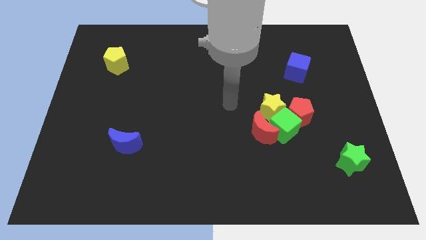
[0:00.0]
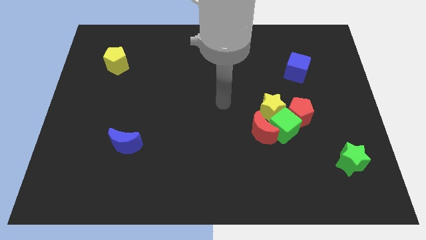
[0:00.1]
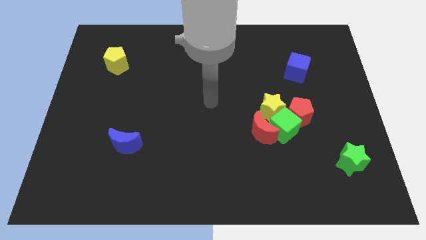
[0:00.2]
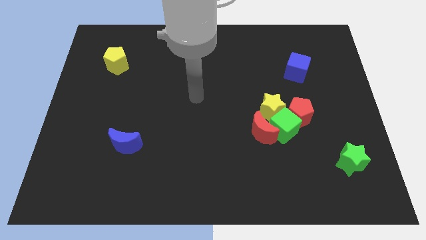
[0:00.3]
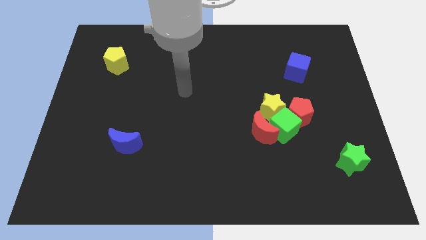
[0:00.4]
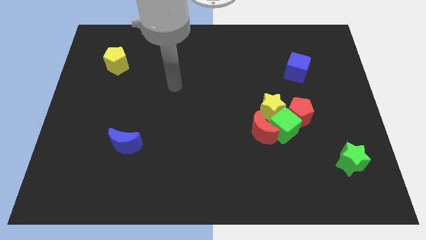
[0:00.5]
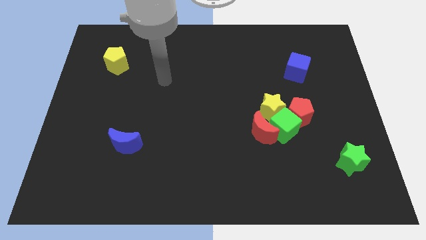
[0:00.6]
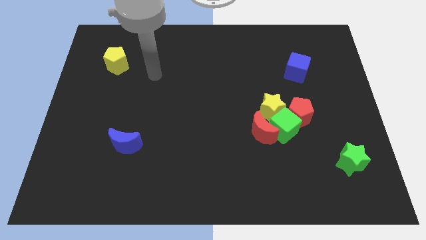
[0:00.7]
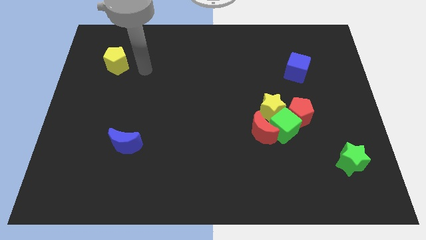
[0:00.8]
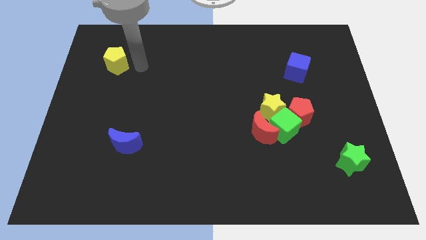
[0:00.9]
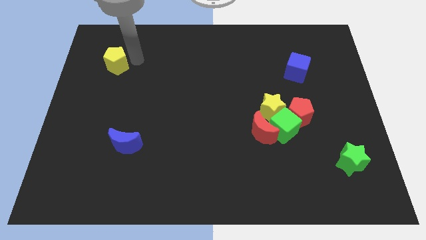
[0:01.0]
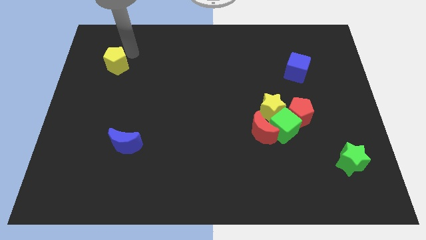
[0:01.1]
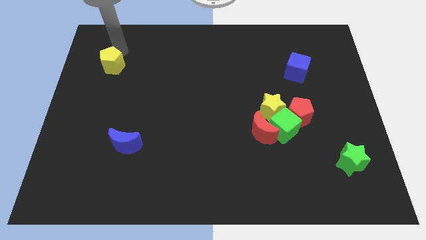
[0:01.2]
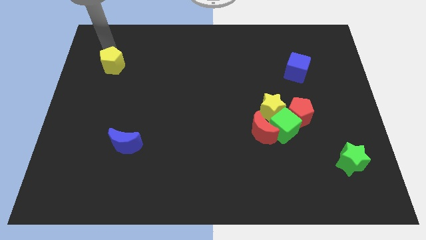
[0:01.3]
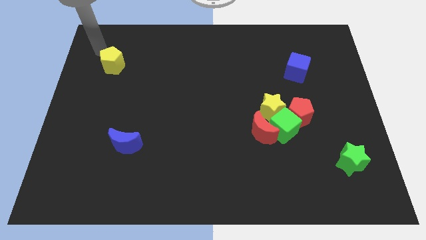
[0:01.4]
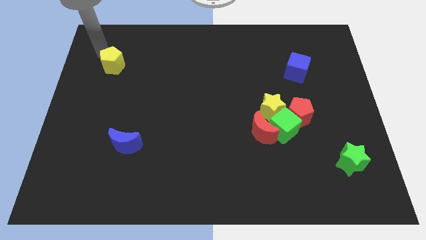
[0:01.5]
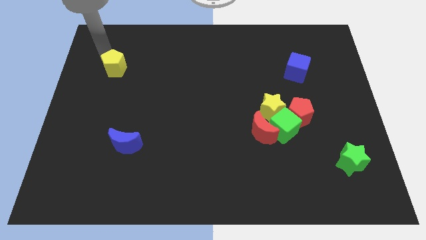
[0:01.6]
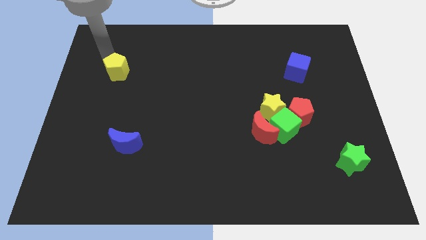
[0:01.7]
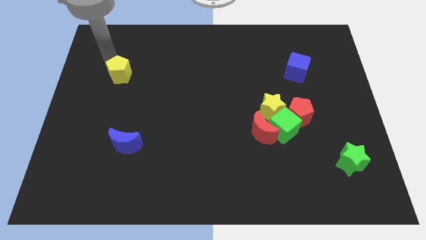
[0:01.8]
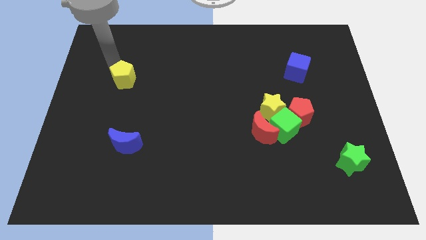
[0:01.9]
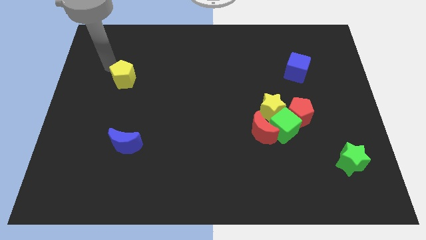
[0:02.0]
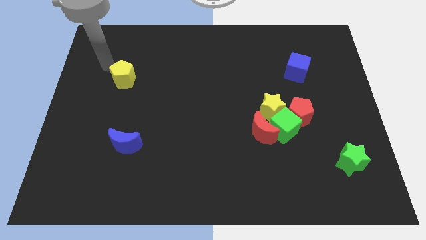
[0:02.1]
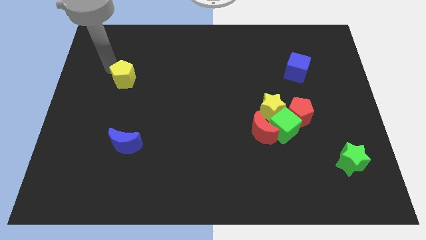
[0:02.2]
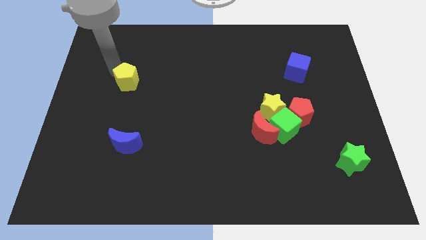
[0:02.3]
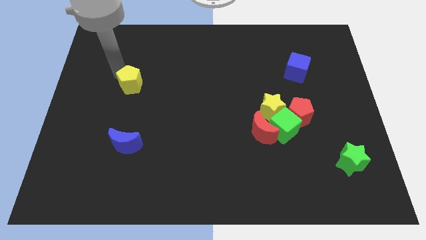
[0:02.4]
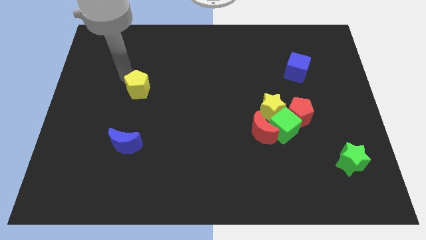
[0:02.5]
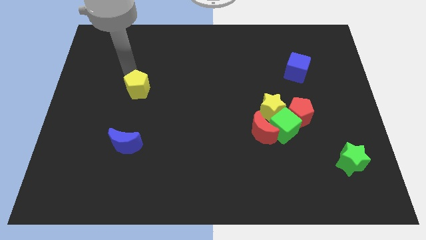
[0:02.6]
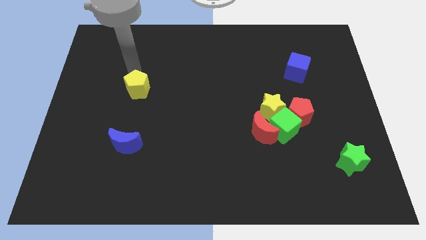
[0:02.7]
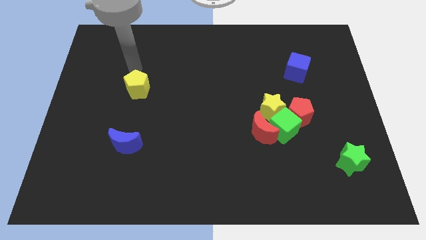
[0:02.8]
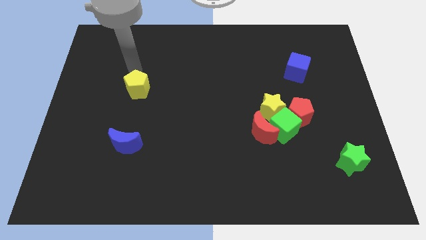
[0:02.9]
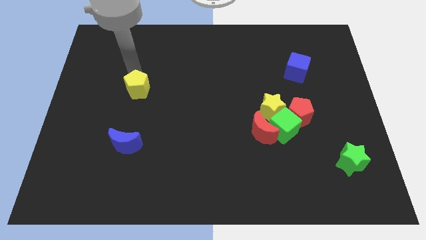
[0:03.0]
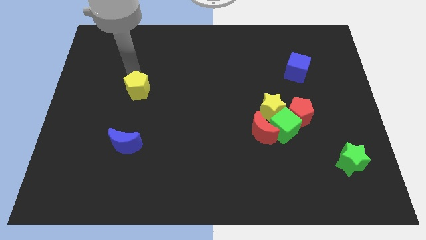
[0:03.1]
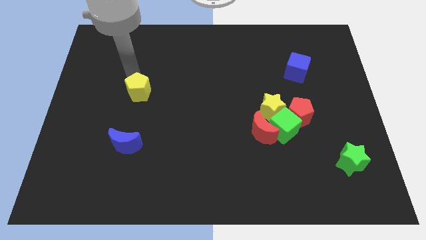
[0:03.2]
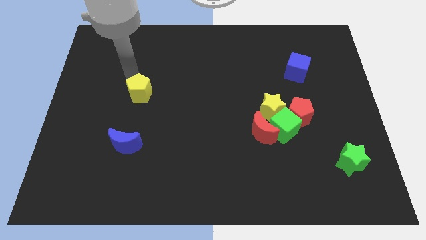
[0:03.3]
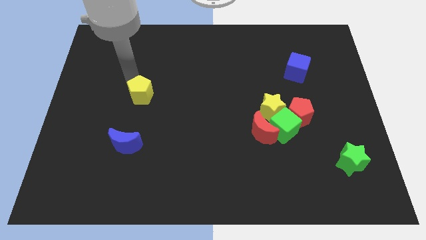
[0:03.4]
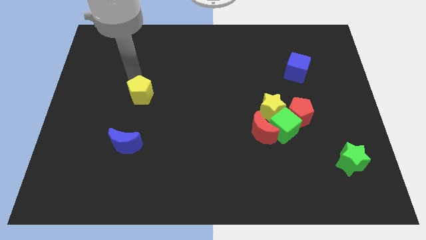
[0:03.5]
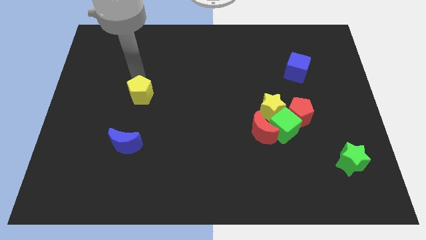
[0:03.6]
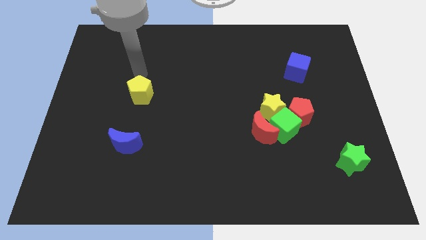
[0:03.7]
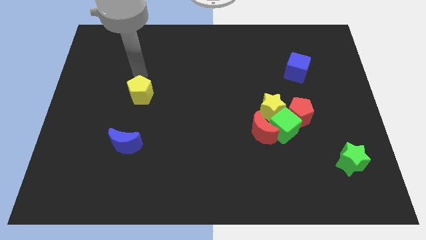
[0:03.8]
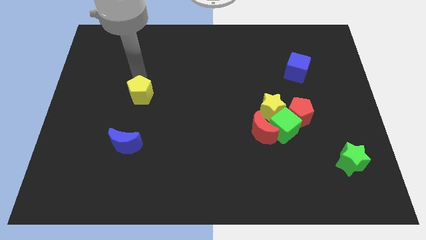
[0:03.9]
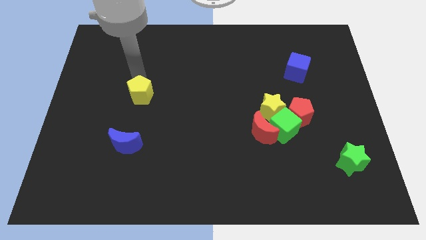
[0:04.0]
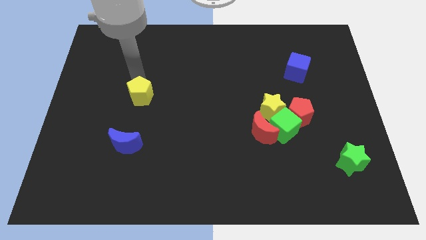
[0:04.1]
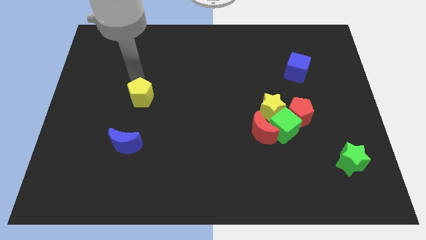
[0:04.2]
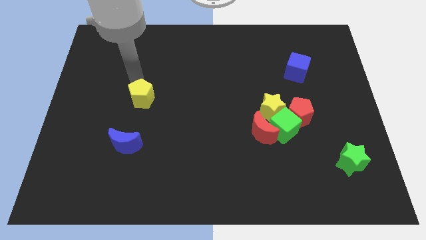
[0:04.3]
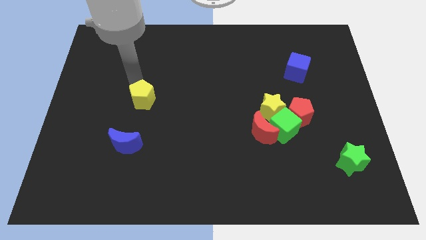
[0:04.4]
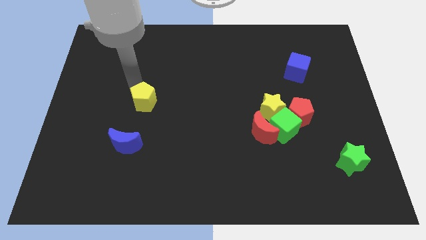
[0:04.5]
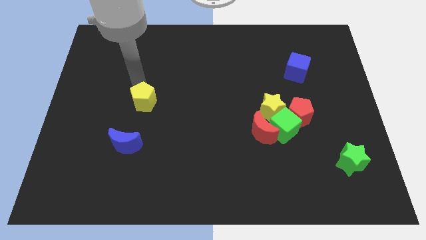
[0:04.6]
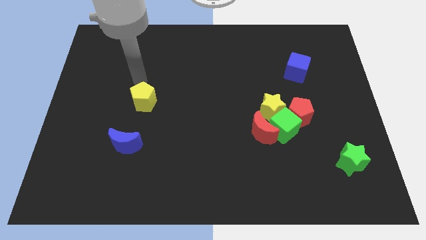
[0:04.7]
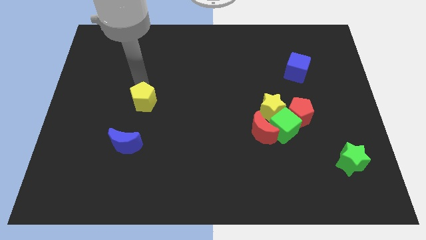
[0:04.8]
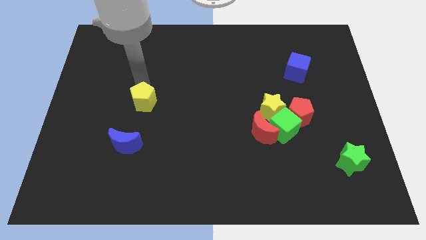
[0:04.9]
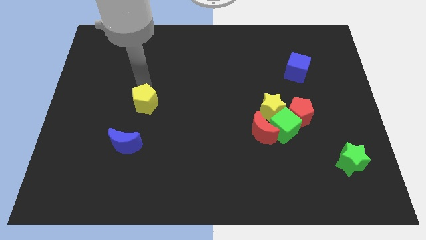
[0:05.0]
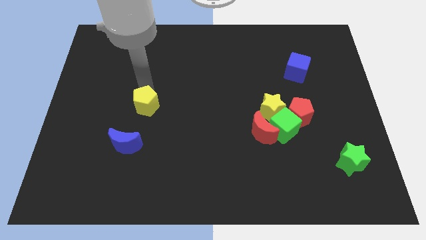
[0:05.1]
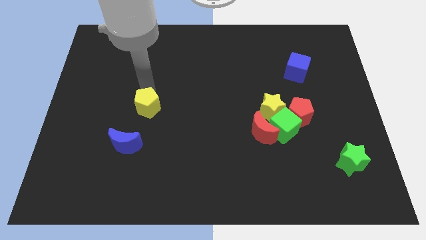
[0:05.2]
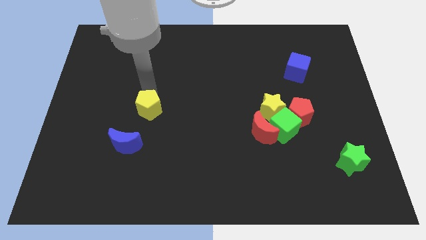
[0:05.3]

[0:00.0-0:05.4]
move the yellow pentagon diagonally up and to the right of the blue moon

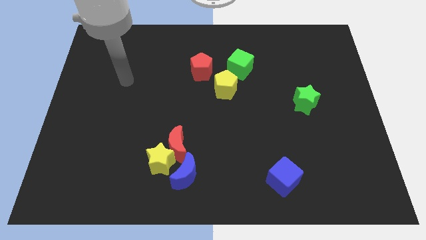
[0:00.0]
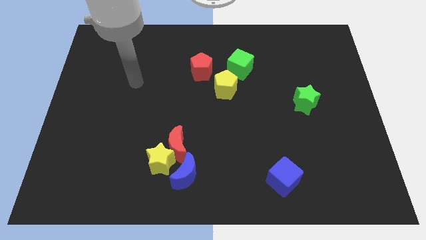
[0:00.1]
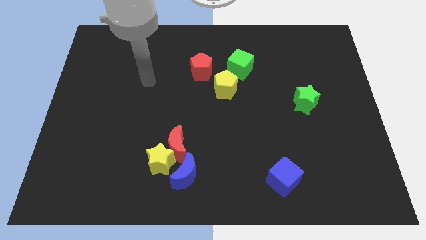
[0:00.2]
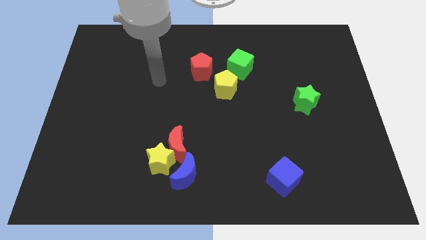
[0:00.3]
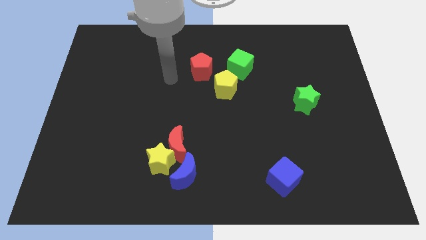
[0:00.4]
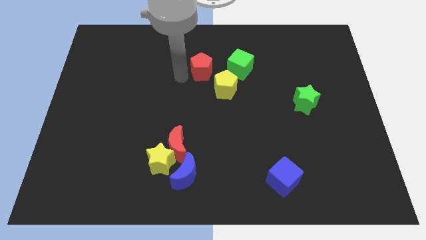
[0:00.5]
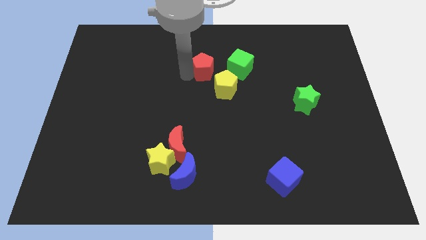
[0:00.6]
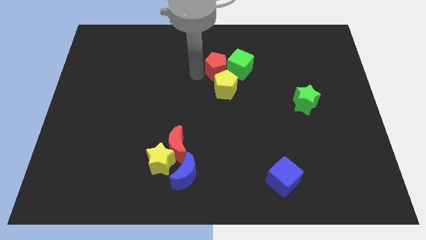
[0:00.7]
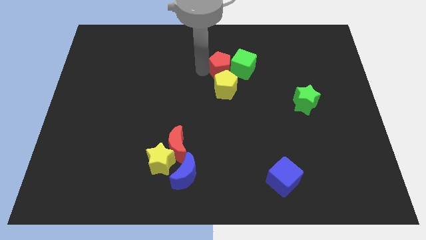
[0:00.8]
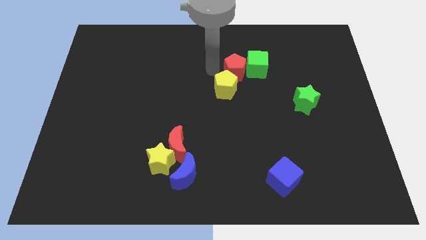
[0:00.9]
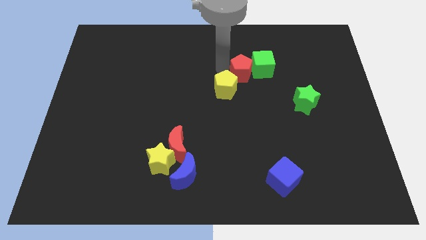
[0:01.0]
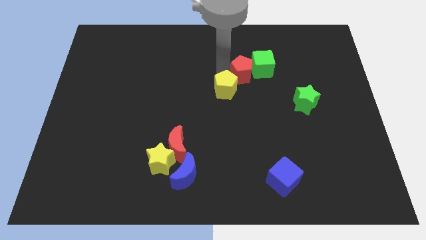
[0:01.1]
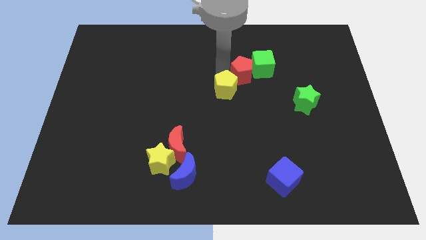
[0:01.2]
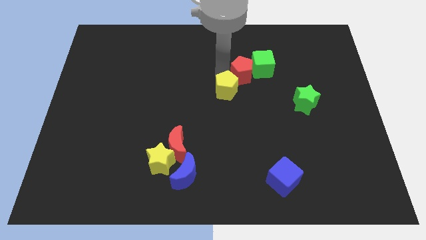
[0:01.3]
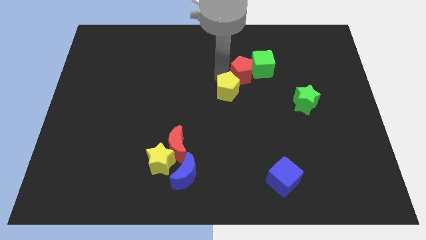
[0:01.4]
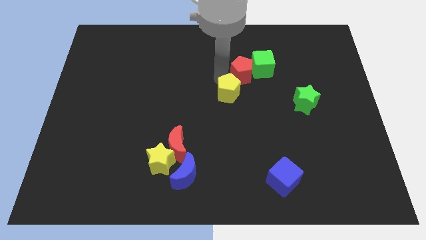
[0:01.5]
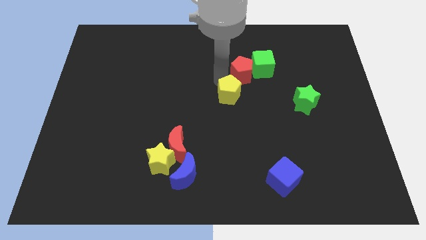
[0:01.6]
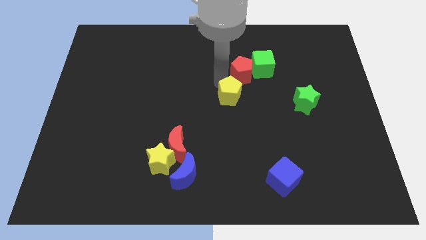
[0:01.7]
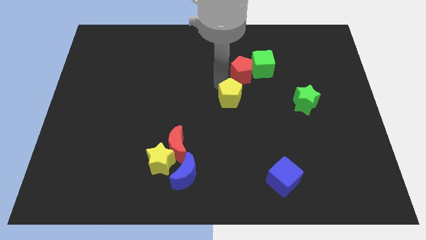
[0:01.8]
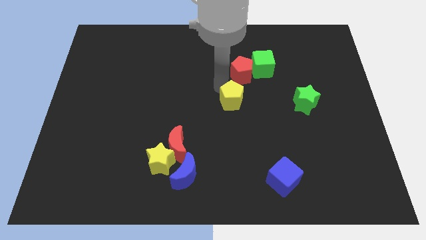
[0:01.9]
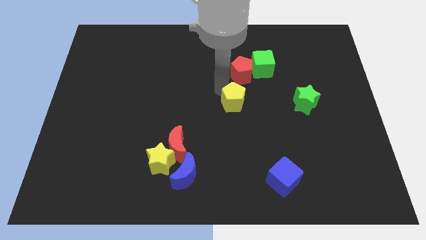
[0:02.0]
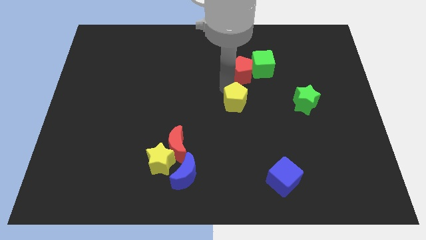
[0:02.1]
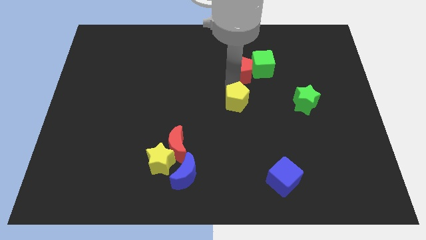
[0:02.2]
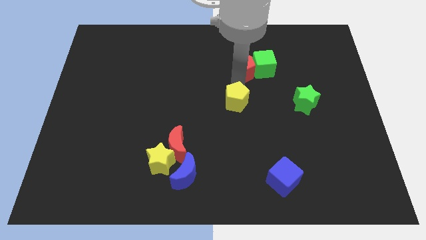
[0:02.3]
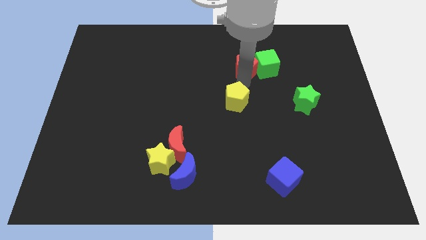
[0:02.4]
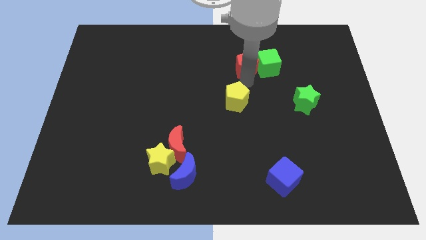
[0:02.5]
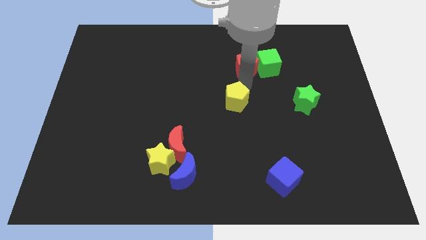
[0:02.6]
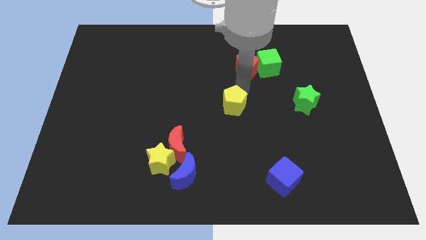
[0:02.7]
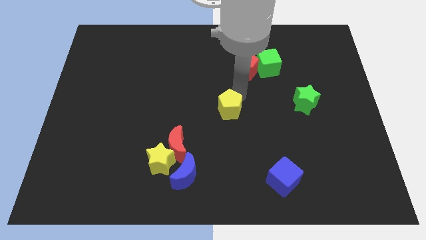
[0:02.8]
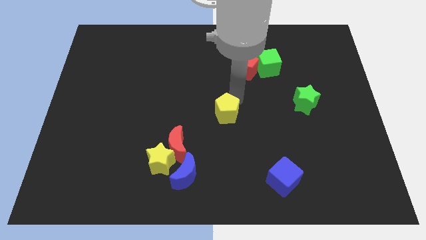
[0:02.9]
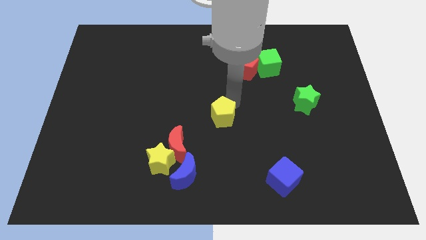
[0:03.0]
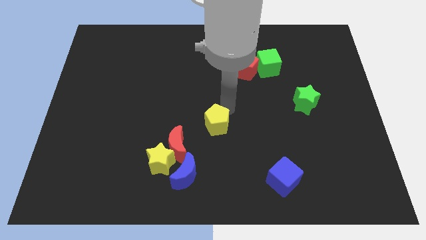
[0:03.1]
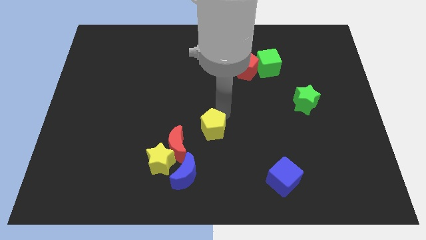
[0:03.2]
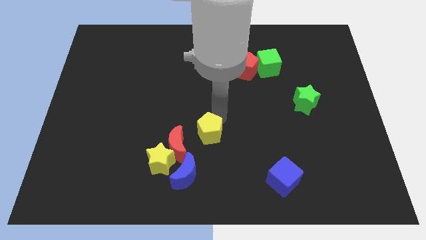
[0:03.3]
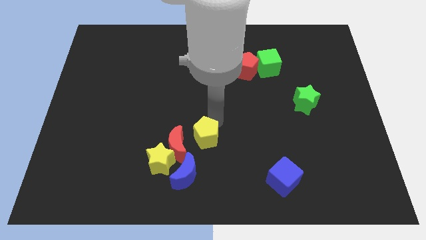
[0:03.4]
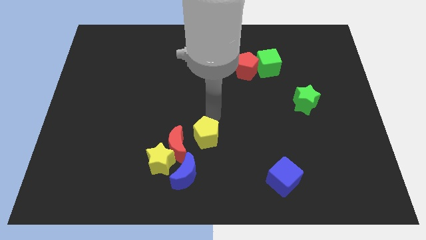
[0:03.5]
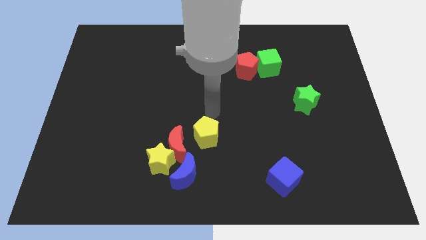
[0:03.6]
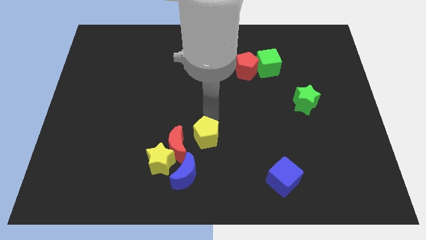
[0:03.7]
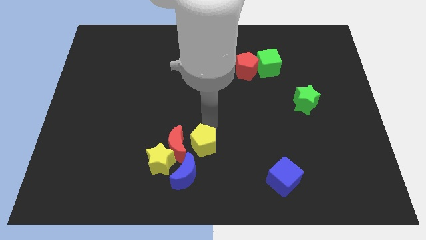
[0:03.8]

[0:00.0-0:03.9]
slide the yellow pentagon to the bottom right of the red moon
